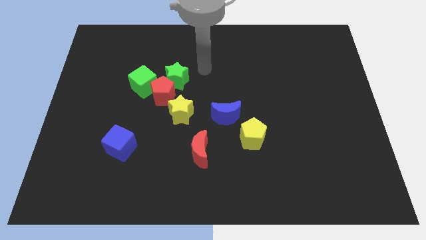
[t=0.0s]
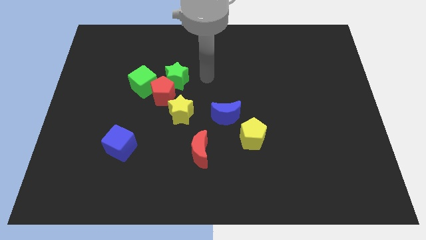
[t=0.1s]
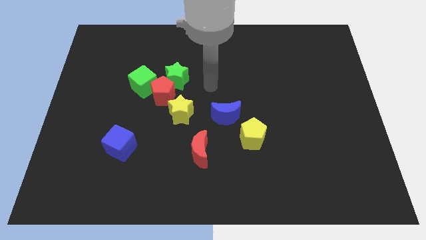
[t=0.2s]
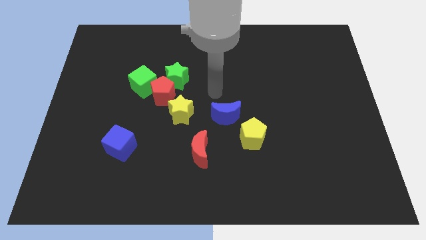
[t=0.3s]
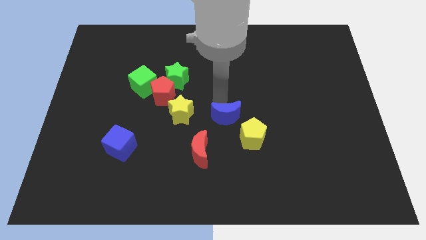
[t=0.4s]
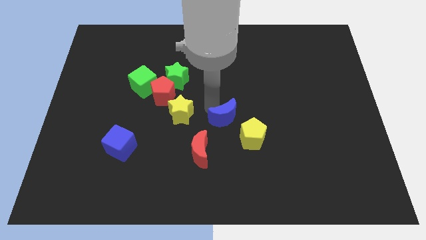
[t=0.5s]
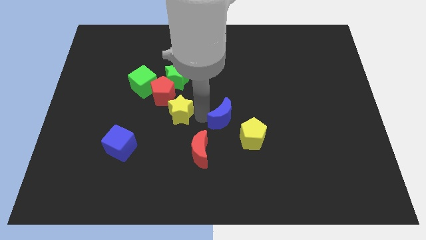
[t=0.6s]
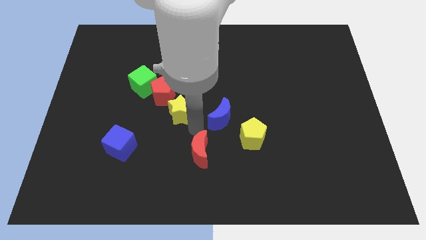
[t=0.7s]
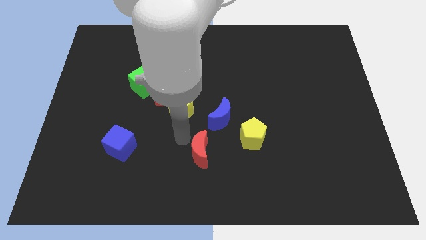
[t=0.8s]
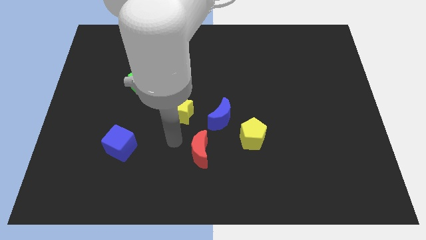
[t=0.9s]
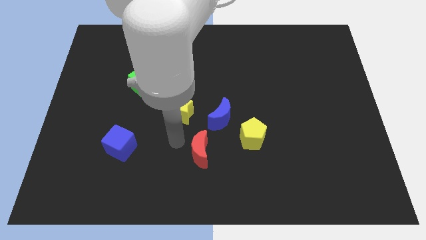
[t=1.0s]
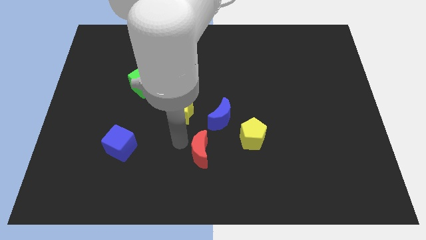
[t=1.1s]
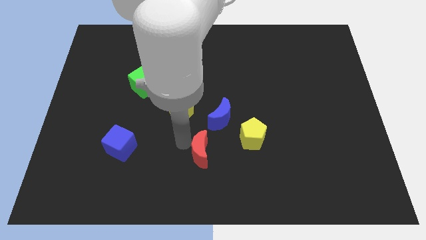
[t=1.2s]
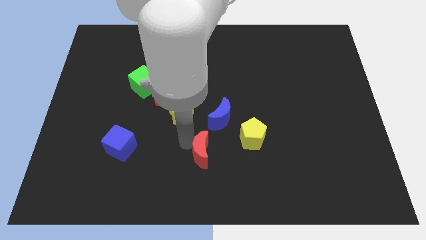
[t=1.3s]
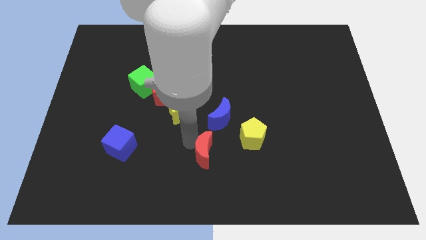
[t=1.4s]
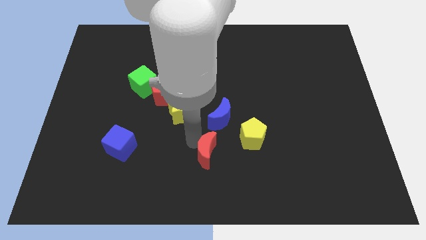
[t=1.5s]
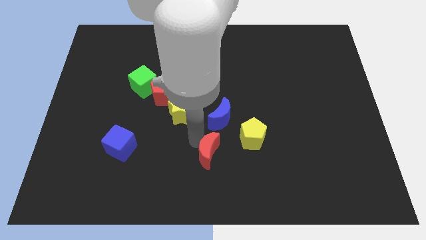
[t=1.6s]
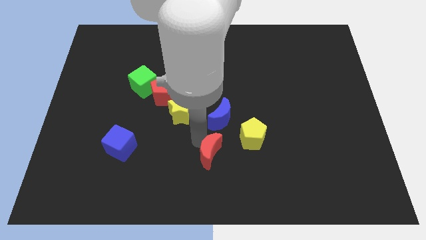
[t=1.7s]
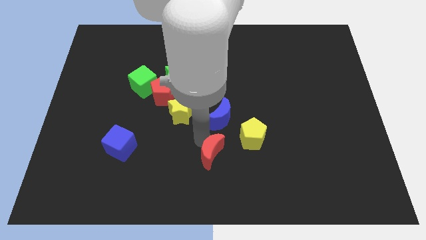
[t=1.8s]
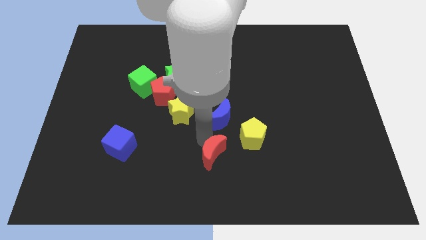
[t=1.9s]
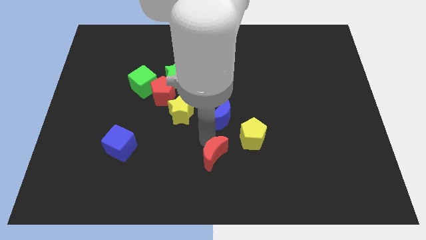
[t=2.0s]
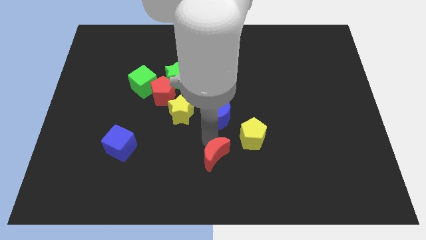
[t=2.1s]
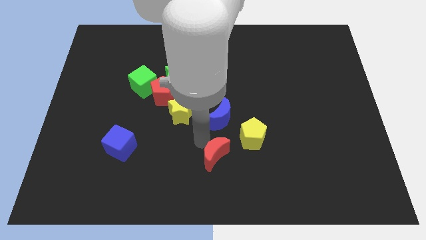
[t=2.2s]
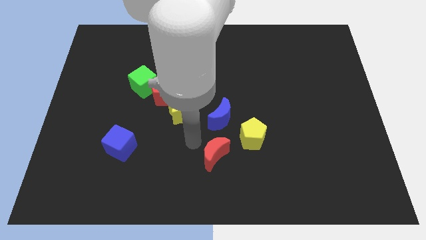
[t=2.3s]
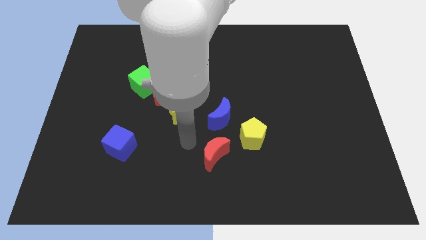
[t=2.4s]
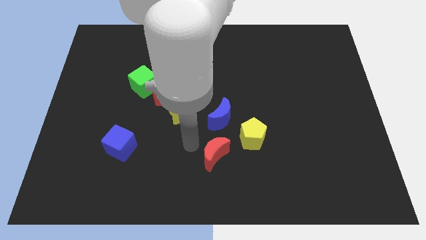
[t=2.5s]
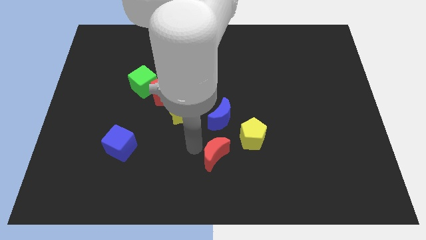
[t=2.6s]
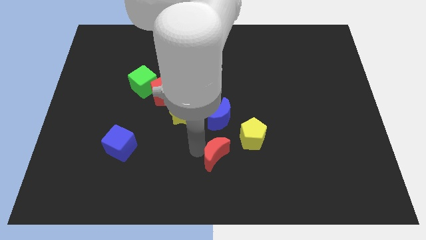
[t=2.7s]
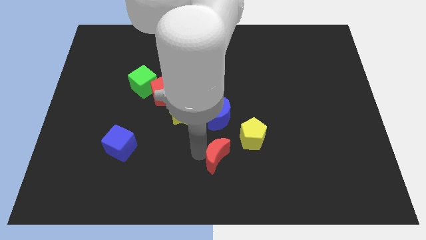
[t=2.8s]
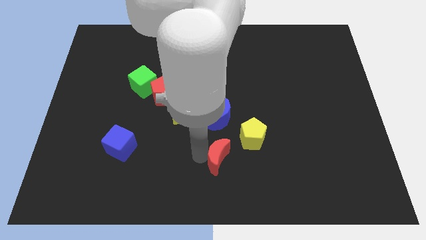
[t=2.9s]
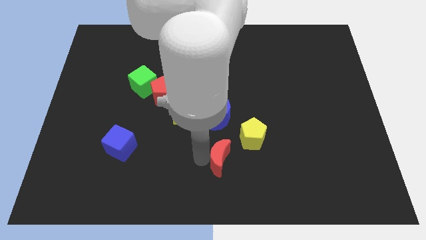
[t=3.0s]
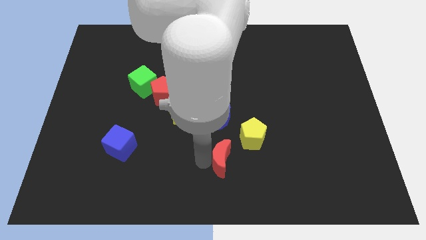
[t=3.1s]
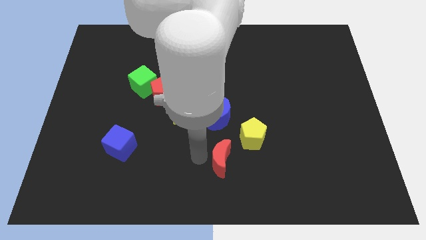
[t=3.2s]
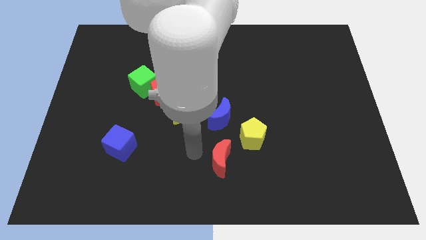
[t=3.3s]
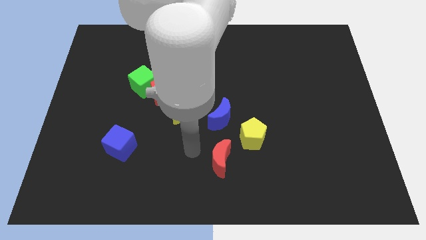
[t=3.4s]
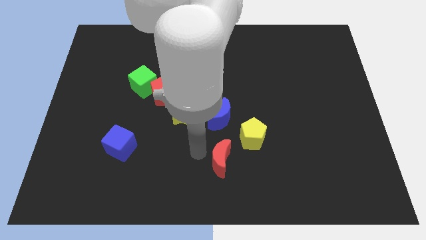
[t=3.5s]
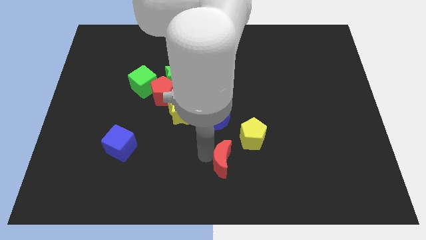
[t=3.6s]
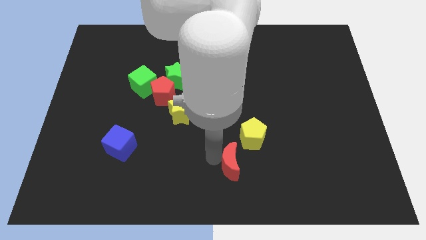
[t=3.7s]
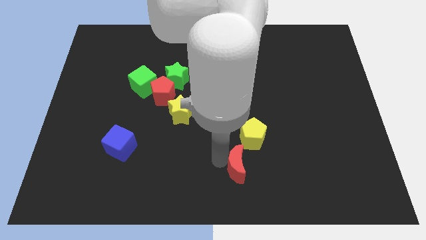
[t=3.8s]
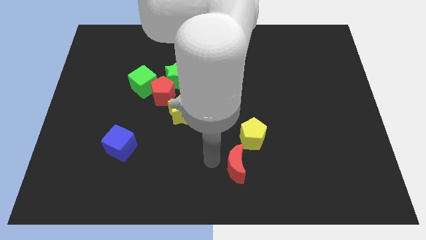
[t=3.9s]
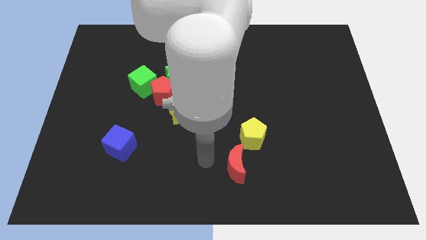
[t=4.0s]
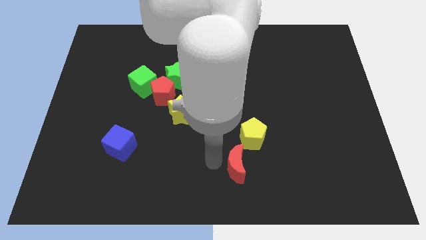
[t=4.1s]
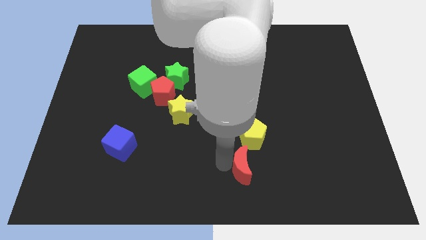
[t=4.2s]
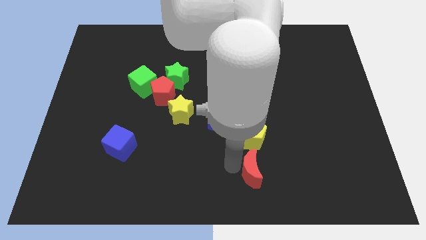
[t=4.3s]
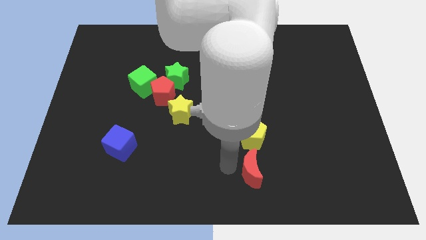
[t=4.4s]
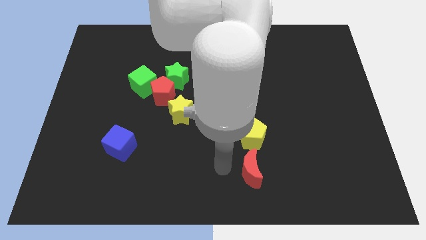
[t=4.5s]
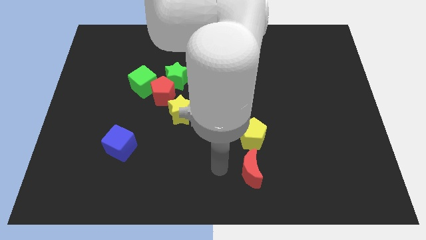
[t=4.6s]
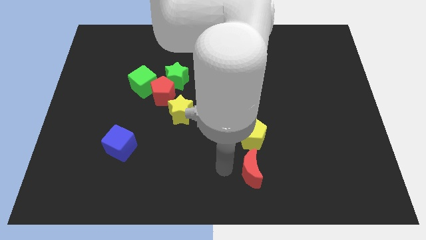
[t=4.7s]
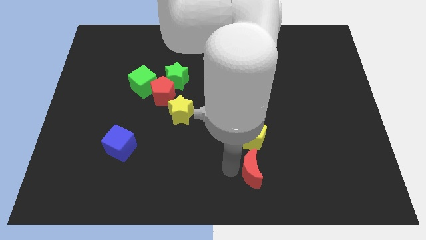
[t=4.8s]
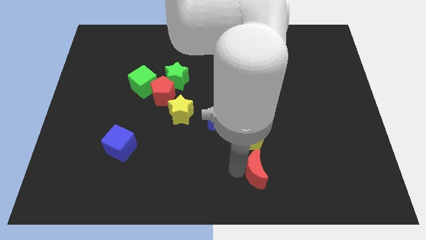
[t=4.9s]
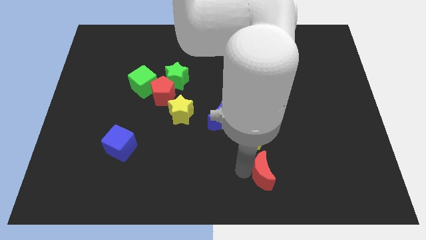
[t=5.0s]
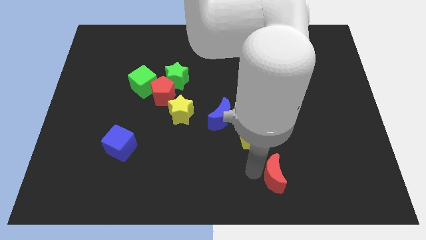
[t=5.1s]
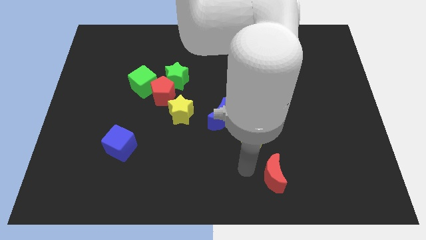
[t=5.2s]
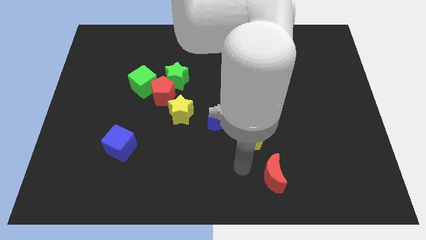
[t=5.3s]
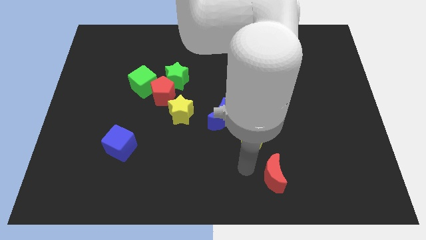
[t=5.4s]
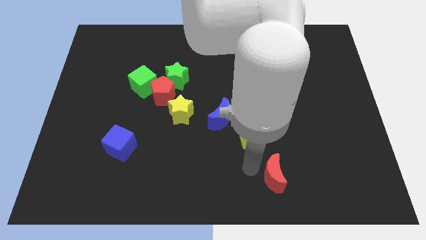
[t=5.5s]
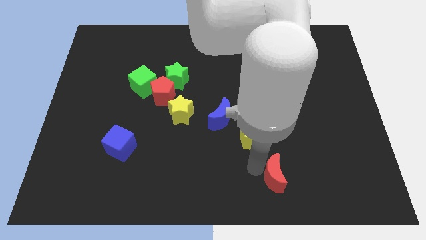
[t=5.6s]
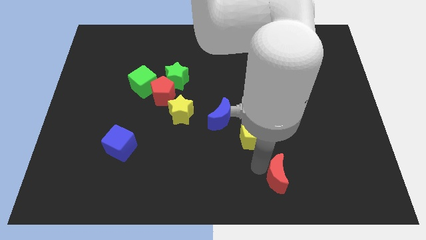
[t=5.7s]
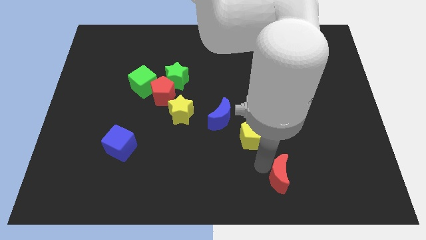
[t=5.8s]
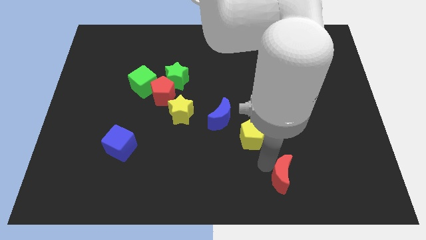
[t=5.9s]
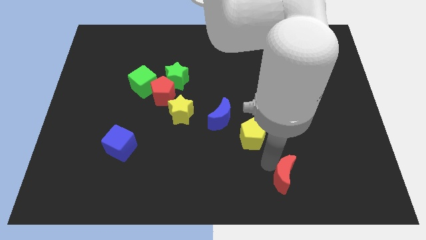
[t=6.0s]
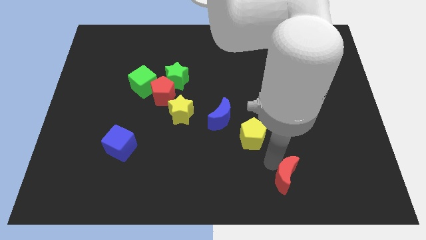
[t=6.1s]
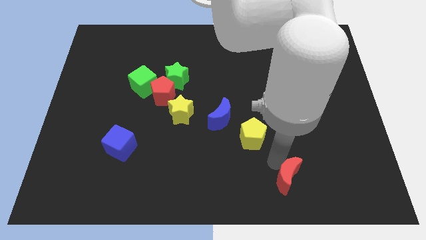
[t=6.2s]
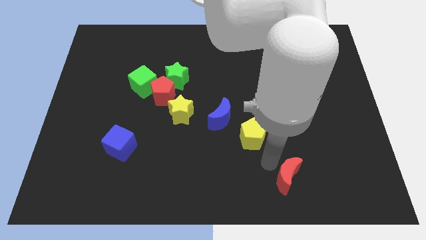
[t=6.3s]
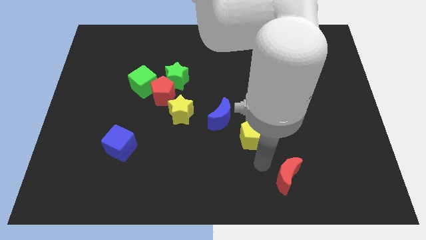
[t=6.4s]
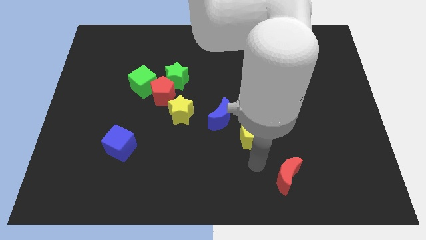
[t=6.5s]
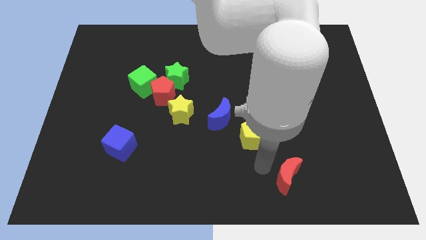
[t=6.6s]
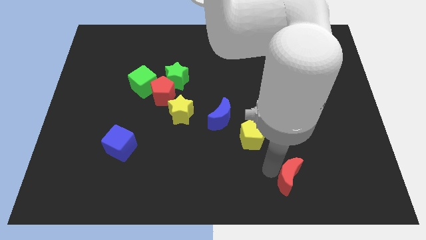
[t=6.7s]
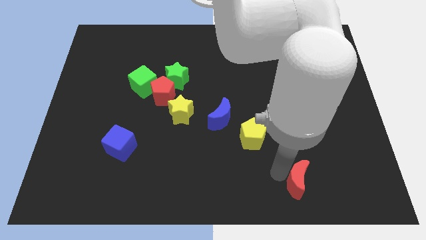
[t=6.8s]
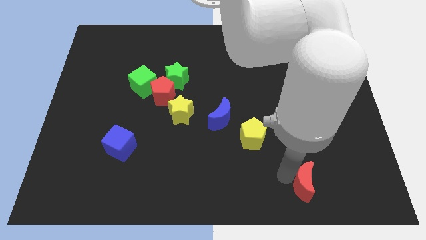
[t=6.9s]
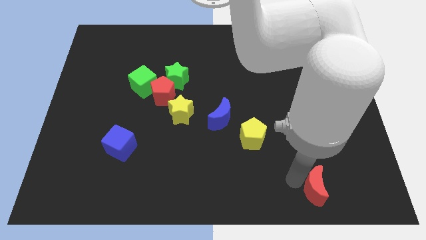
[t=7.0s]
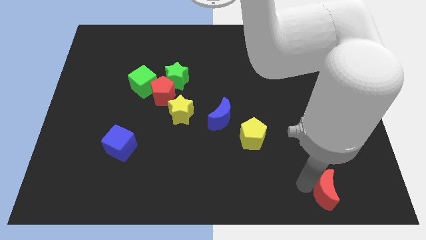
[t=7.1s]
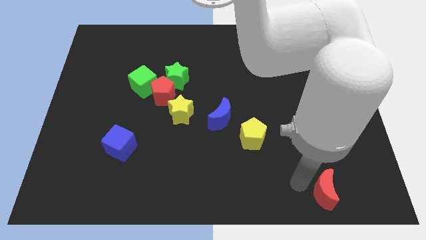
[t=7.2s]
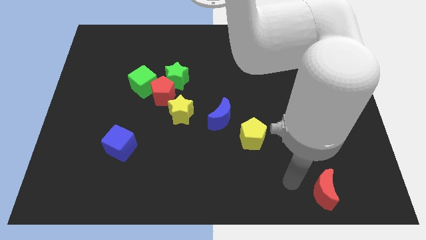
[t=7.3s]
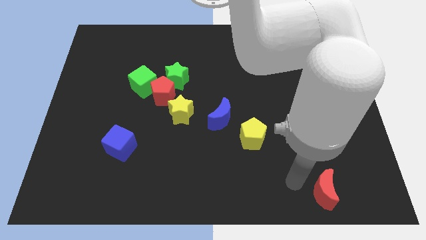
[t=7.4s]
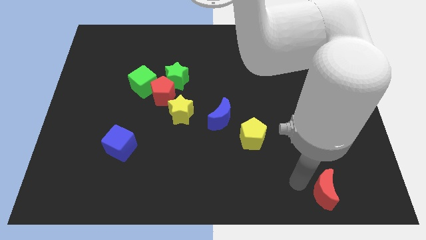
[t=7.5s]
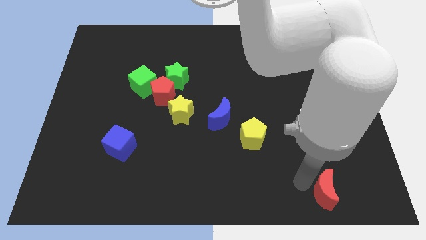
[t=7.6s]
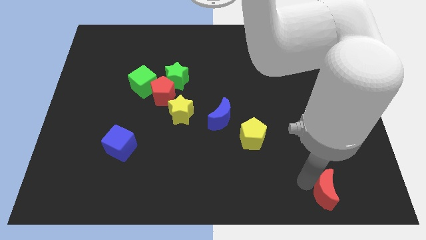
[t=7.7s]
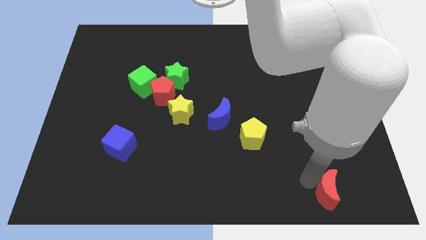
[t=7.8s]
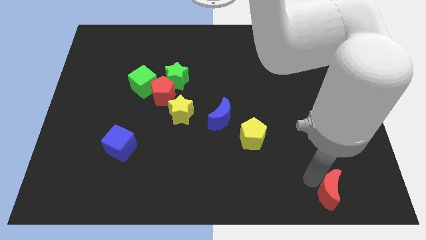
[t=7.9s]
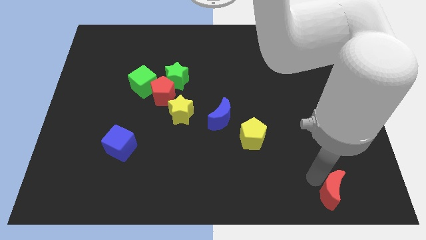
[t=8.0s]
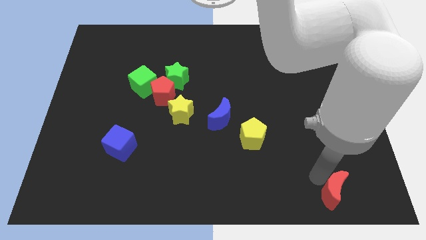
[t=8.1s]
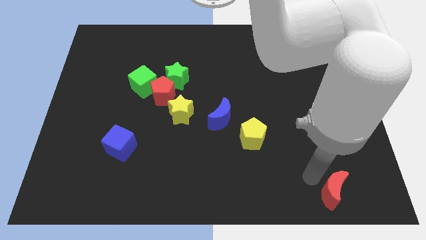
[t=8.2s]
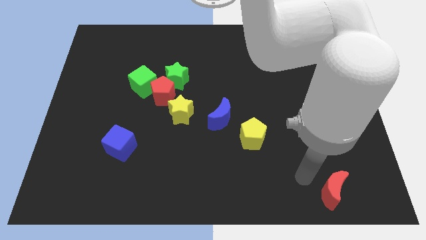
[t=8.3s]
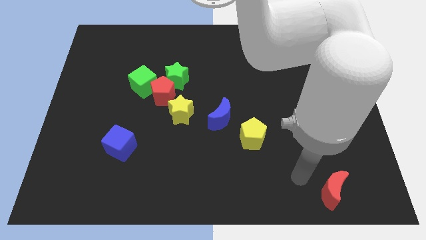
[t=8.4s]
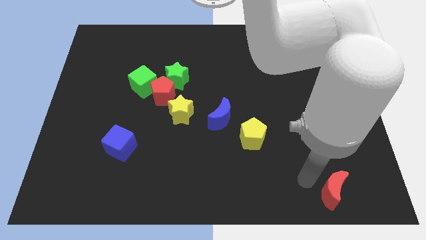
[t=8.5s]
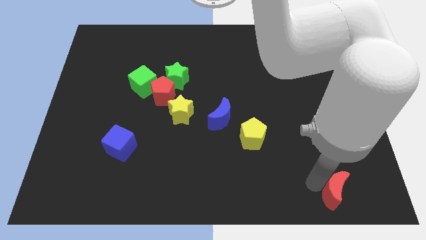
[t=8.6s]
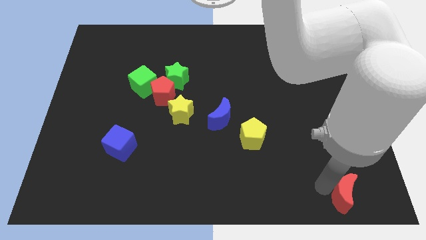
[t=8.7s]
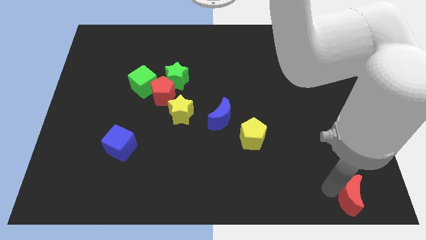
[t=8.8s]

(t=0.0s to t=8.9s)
slide the red moon to the bottom right
